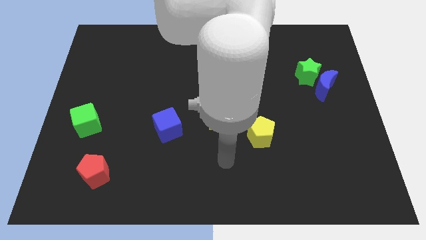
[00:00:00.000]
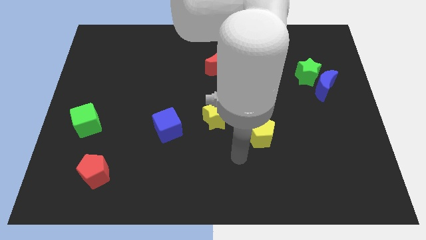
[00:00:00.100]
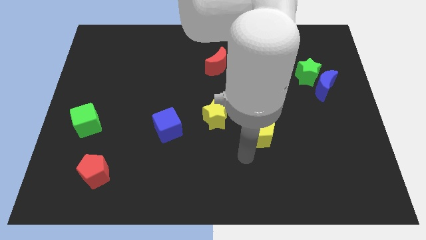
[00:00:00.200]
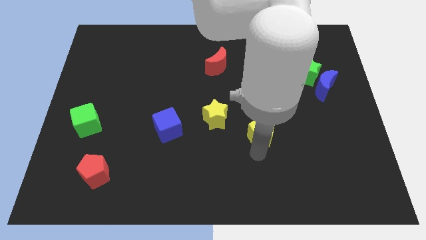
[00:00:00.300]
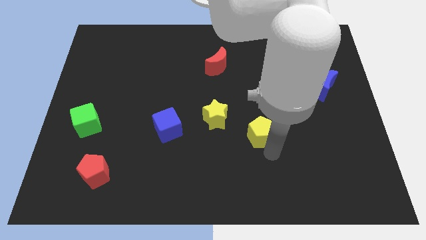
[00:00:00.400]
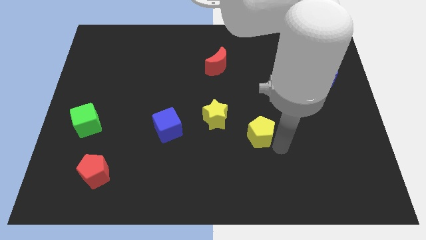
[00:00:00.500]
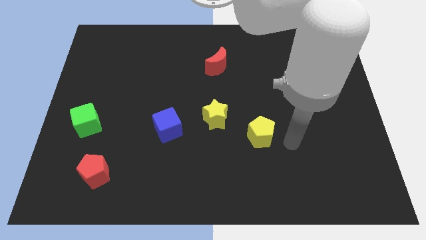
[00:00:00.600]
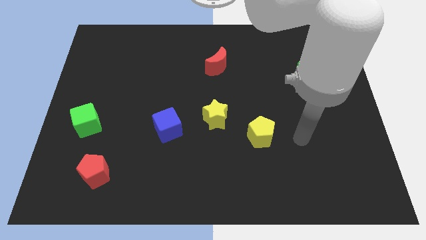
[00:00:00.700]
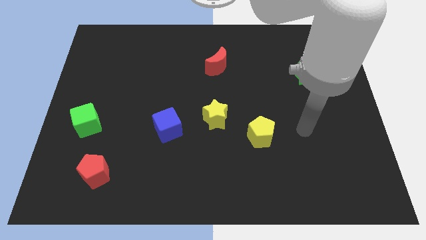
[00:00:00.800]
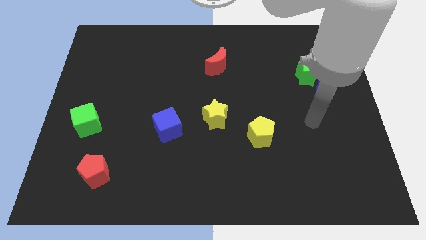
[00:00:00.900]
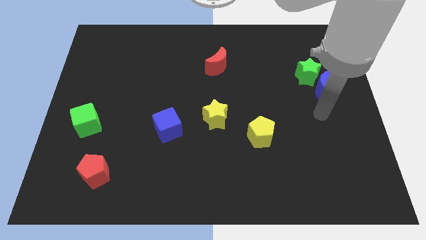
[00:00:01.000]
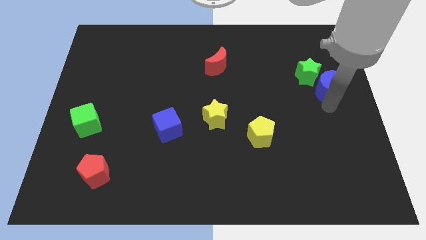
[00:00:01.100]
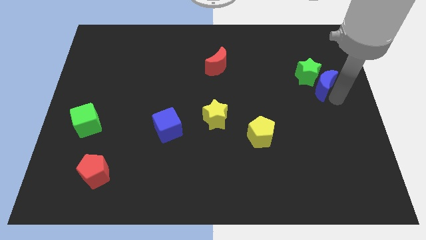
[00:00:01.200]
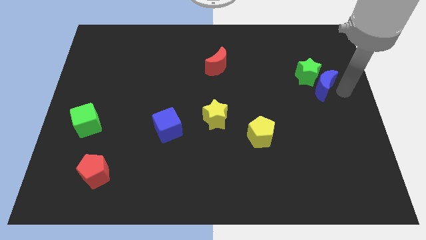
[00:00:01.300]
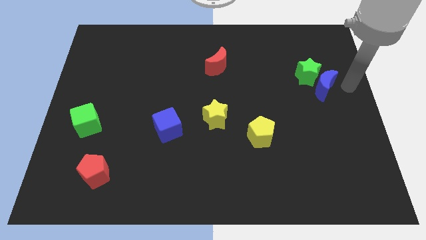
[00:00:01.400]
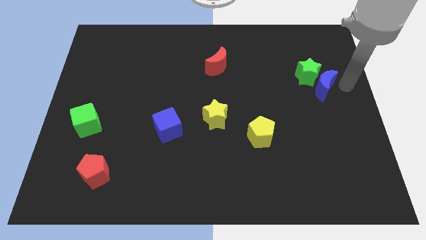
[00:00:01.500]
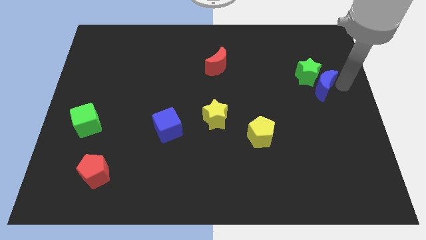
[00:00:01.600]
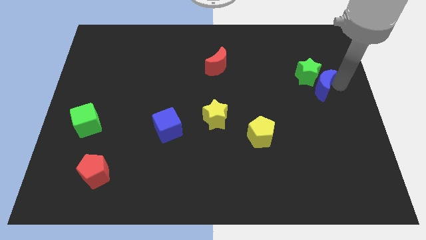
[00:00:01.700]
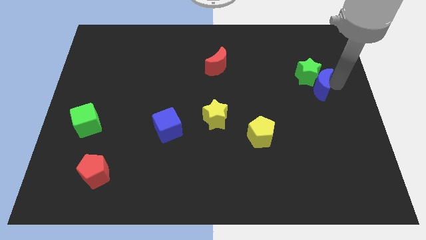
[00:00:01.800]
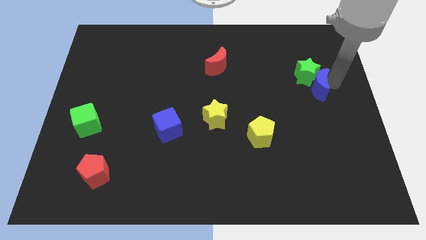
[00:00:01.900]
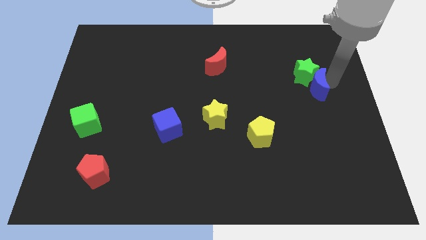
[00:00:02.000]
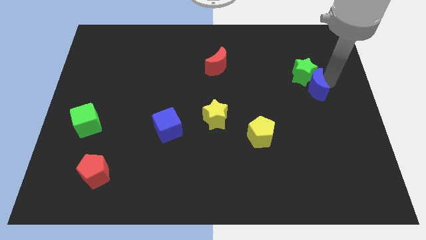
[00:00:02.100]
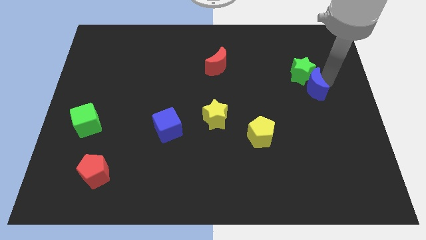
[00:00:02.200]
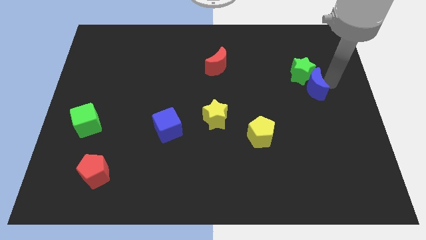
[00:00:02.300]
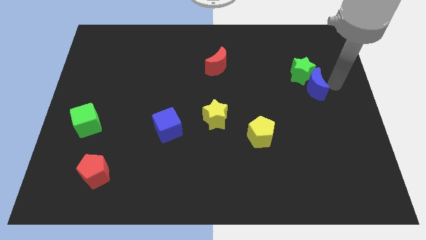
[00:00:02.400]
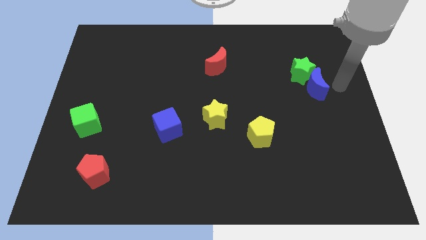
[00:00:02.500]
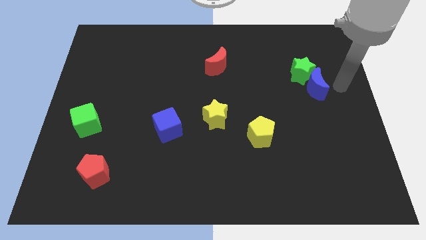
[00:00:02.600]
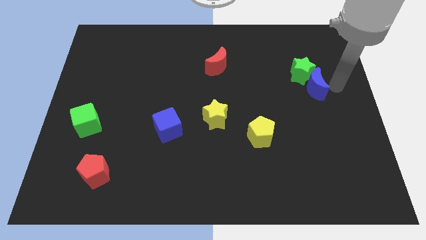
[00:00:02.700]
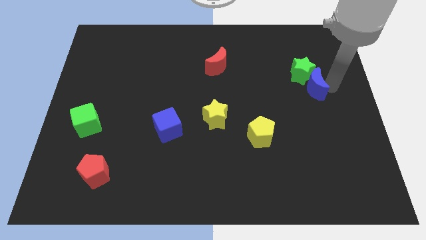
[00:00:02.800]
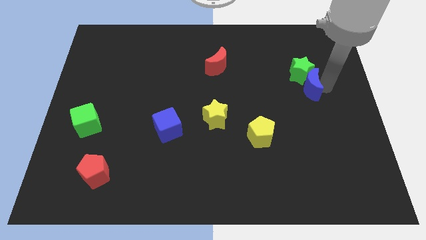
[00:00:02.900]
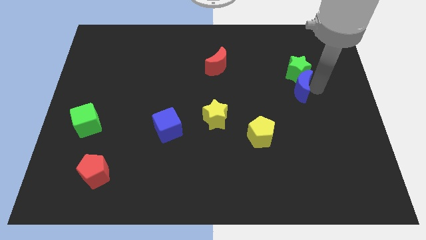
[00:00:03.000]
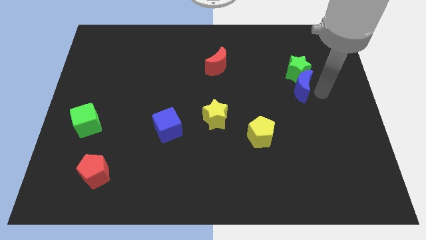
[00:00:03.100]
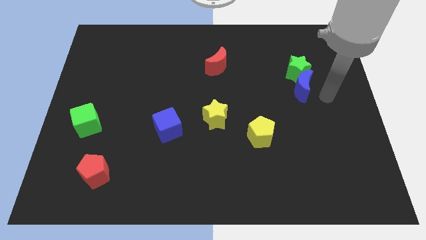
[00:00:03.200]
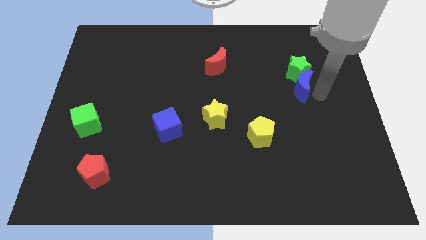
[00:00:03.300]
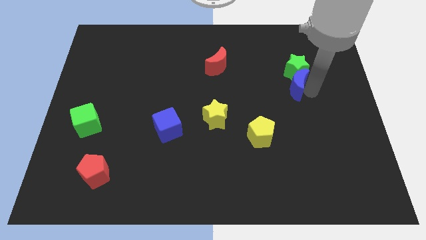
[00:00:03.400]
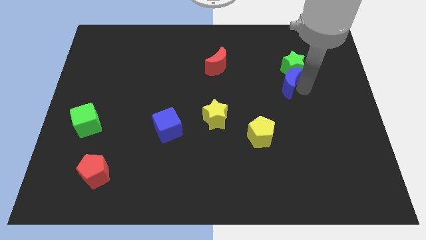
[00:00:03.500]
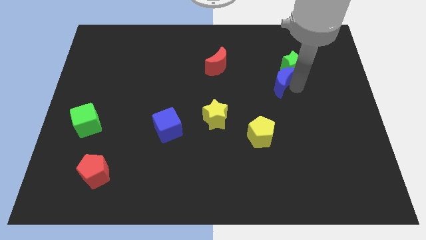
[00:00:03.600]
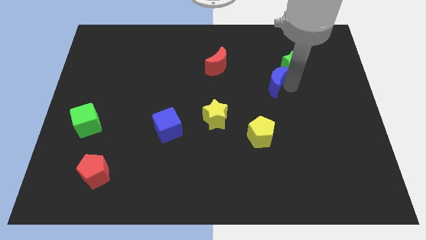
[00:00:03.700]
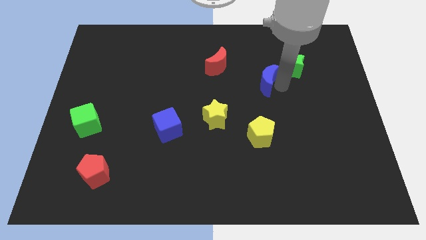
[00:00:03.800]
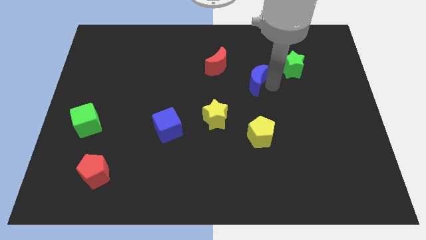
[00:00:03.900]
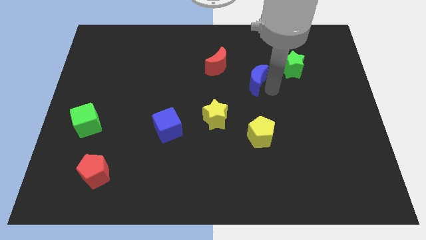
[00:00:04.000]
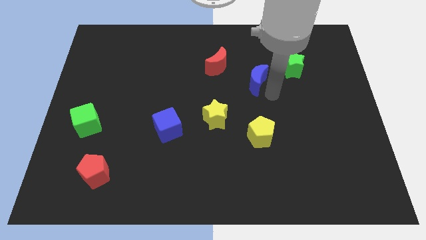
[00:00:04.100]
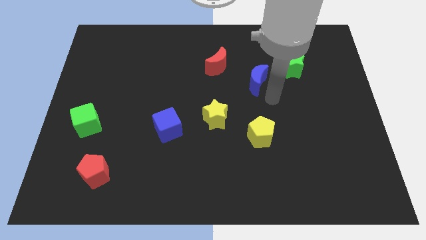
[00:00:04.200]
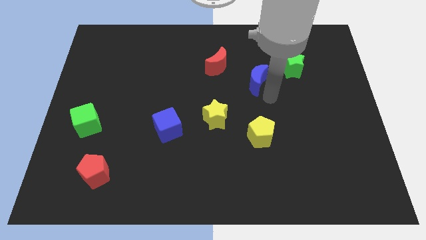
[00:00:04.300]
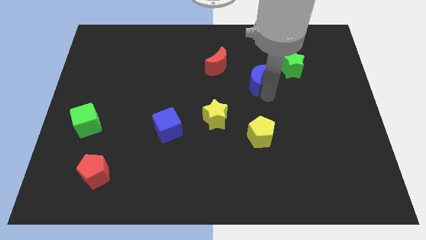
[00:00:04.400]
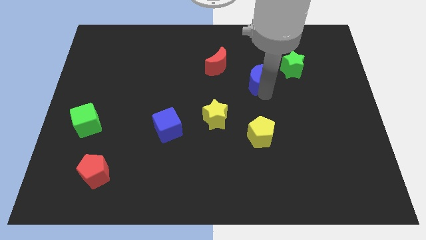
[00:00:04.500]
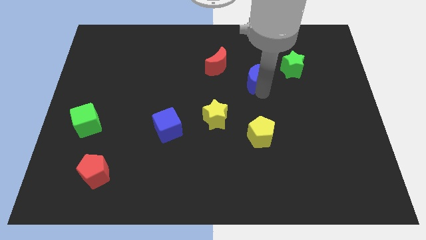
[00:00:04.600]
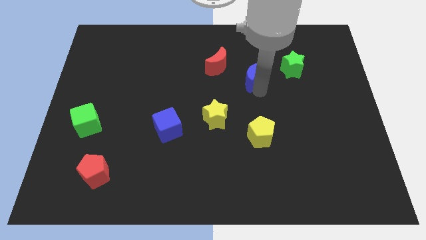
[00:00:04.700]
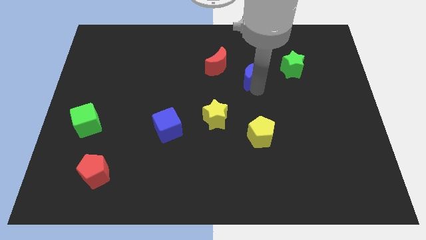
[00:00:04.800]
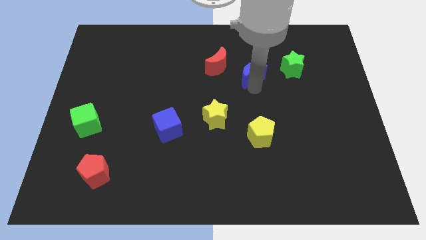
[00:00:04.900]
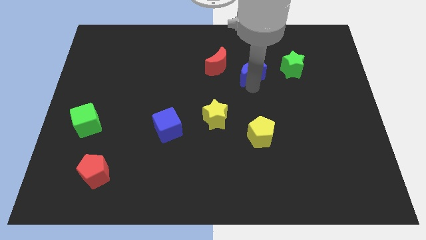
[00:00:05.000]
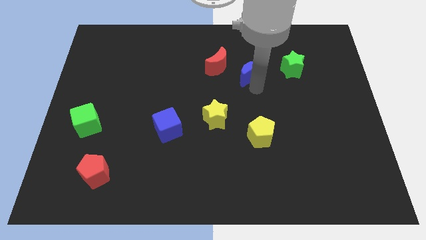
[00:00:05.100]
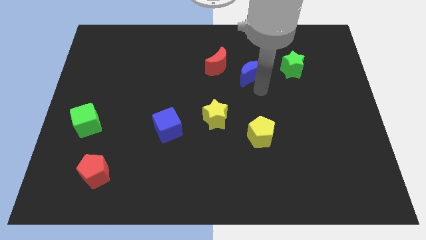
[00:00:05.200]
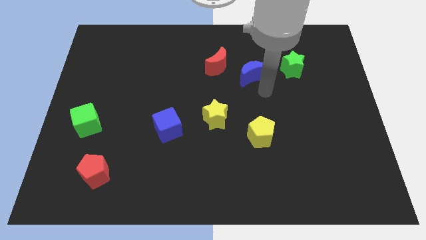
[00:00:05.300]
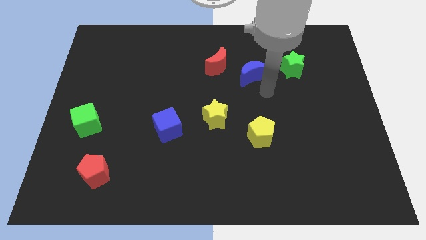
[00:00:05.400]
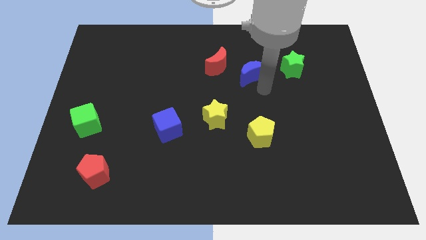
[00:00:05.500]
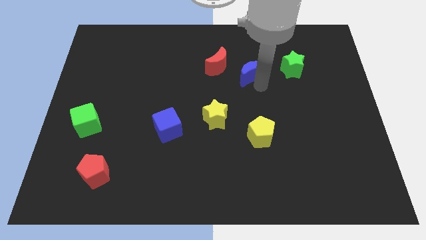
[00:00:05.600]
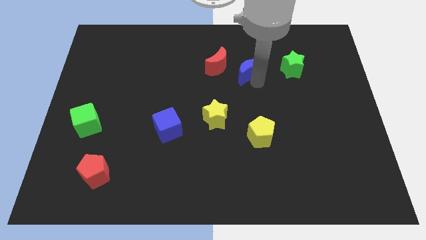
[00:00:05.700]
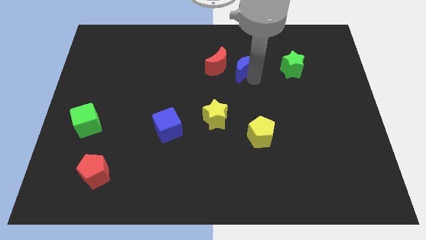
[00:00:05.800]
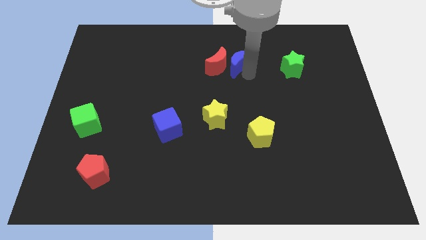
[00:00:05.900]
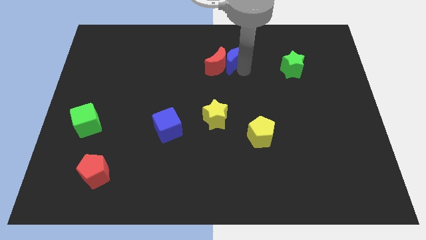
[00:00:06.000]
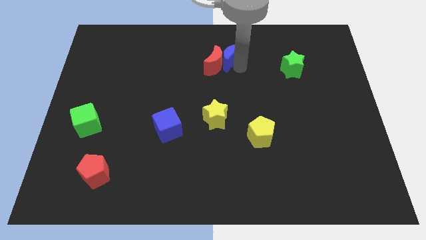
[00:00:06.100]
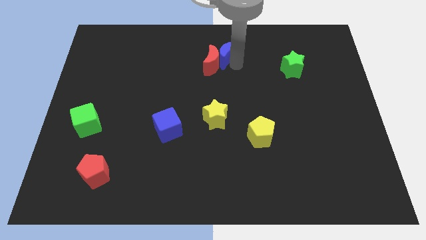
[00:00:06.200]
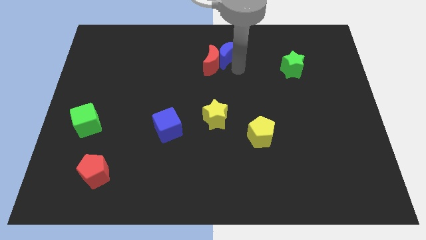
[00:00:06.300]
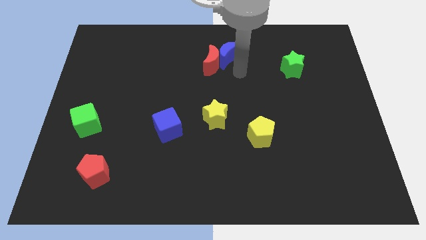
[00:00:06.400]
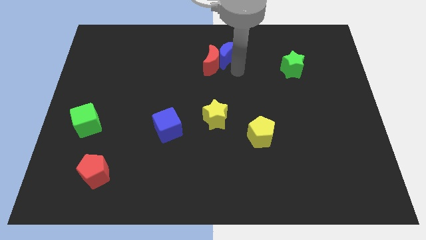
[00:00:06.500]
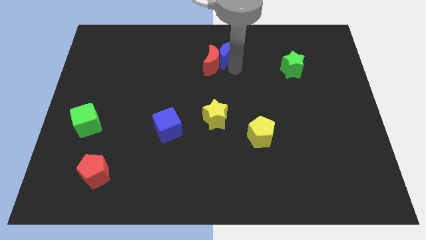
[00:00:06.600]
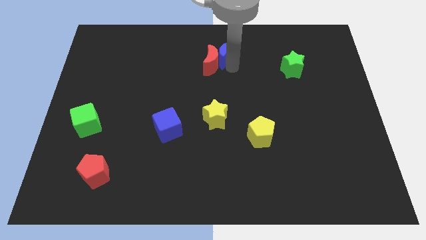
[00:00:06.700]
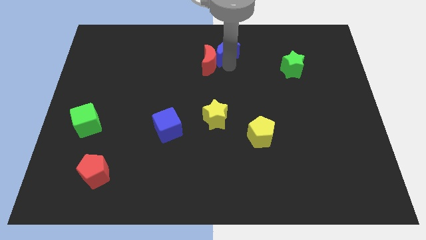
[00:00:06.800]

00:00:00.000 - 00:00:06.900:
push the blue moon to the top

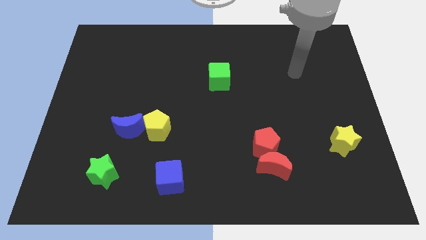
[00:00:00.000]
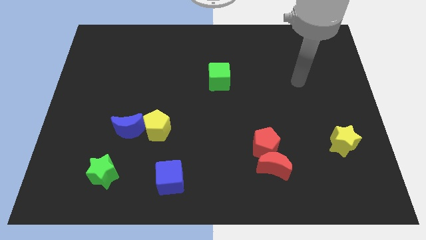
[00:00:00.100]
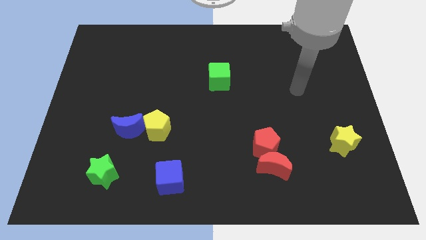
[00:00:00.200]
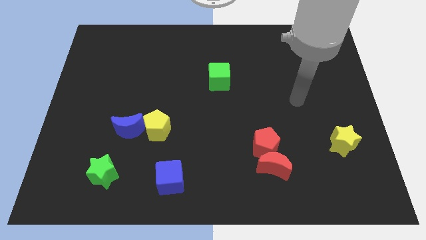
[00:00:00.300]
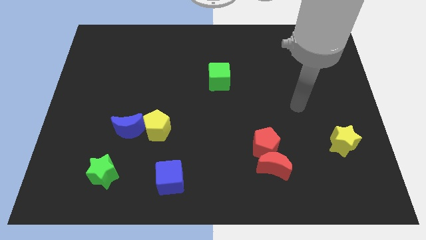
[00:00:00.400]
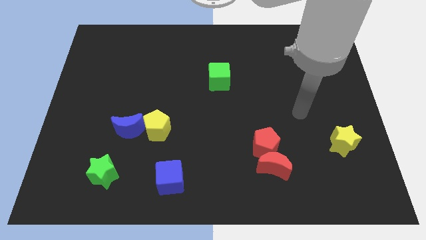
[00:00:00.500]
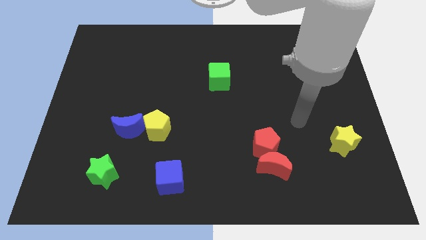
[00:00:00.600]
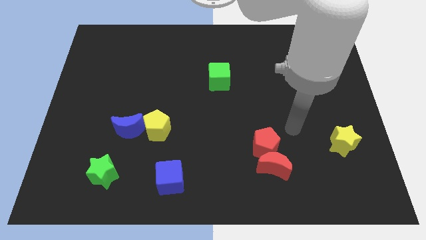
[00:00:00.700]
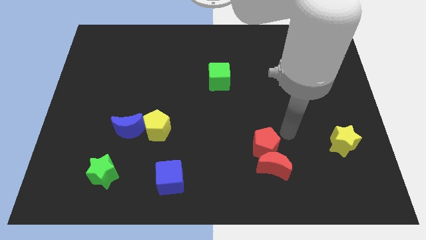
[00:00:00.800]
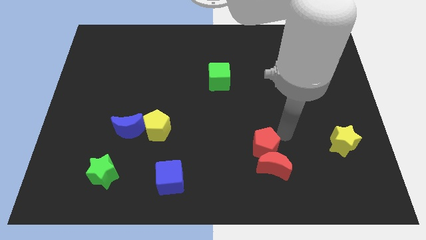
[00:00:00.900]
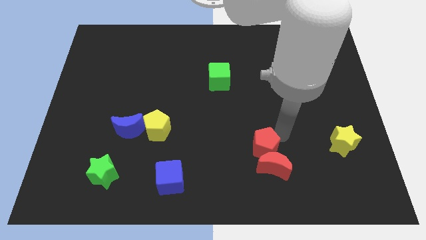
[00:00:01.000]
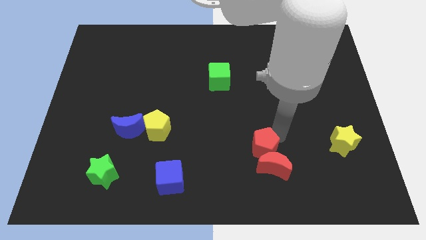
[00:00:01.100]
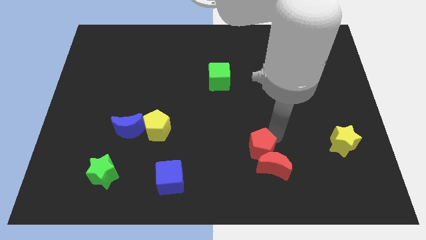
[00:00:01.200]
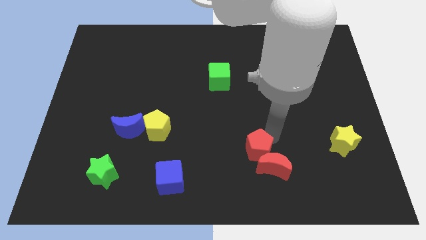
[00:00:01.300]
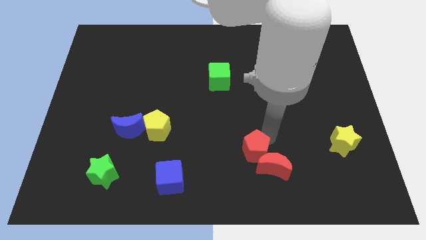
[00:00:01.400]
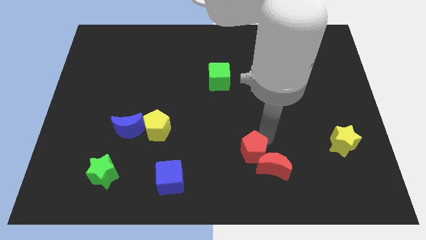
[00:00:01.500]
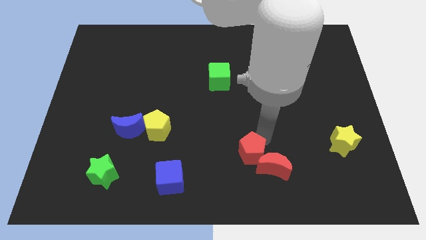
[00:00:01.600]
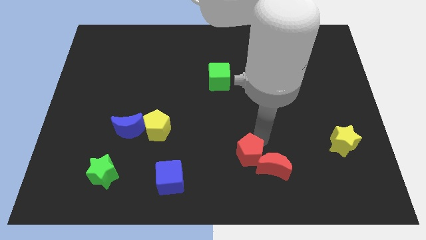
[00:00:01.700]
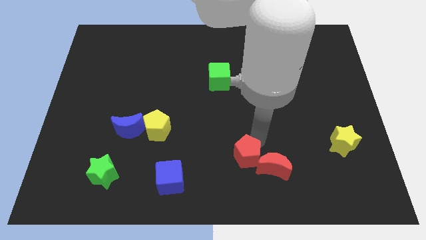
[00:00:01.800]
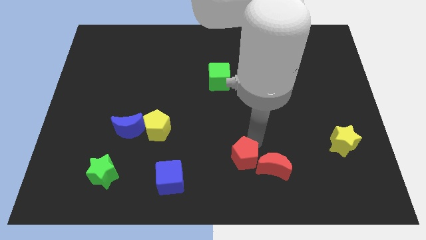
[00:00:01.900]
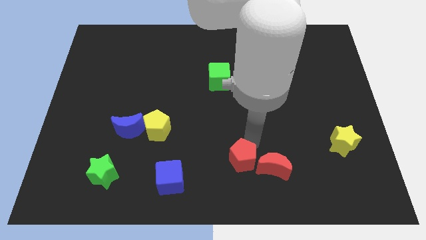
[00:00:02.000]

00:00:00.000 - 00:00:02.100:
slide the red pentagon to the bottom side
